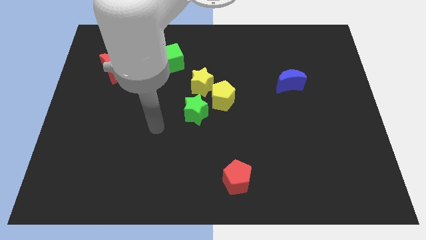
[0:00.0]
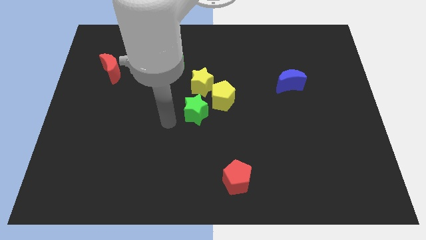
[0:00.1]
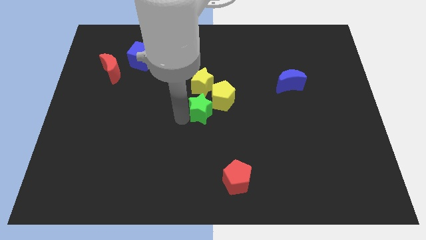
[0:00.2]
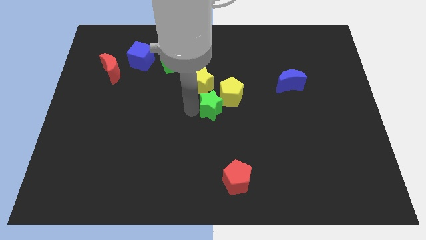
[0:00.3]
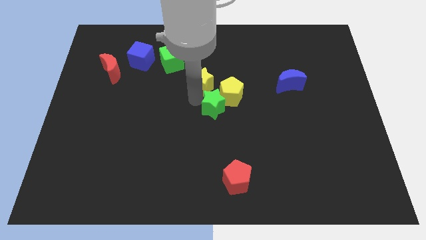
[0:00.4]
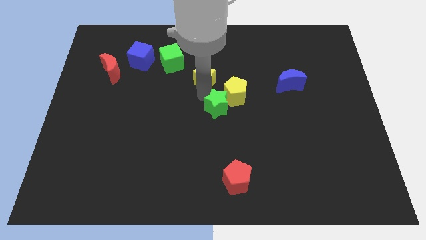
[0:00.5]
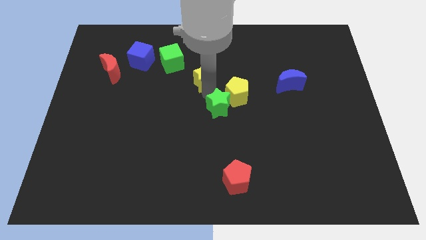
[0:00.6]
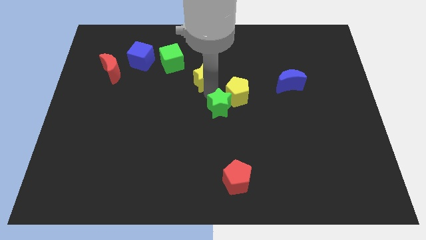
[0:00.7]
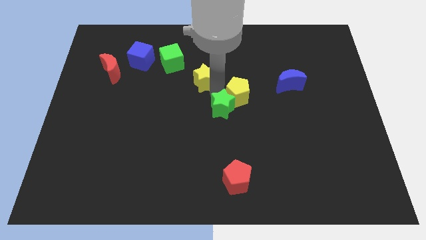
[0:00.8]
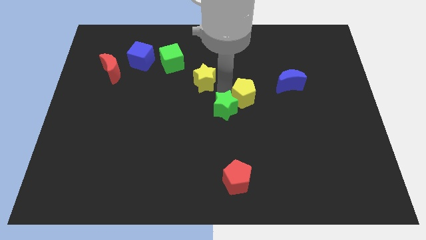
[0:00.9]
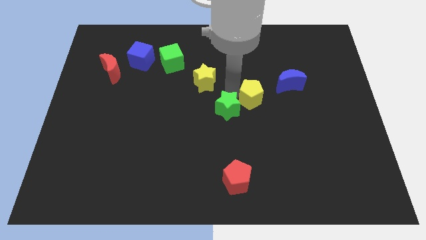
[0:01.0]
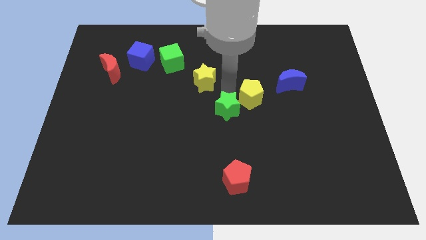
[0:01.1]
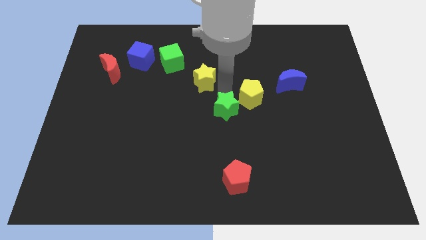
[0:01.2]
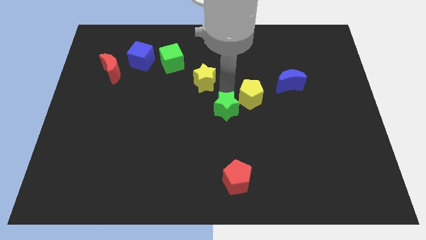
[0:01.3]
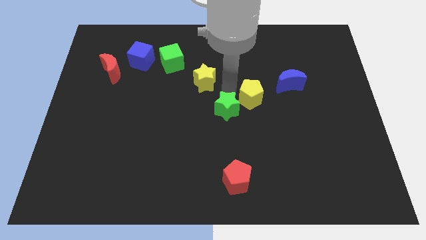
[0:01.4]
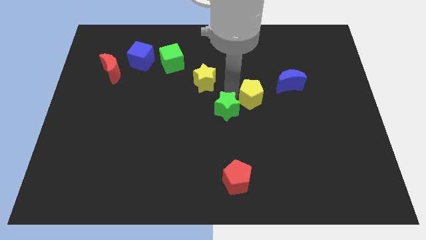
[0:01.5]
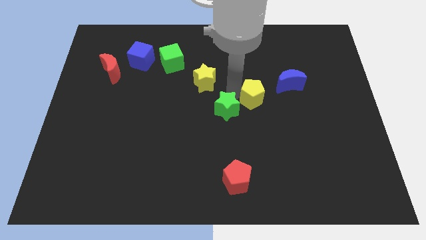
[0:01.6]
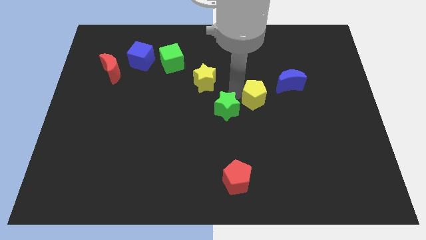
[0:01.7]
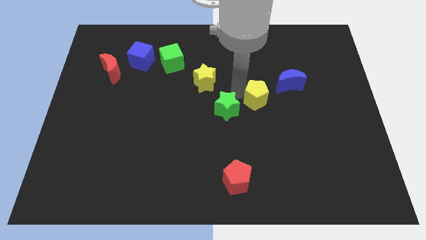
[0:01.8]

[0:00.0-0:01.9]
pull the yellow pentagon apart from the yellow star and green star

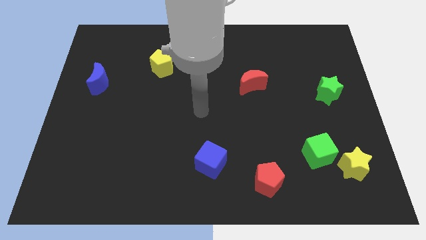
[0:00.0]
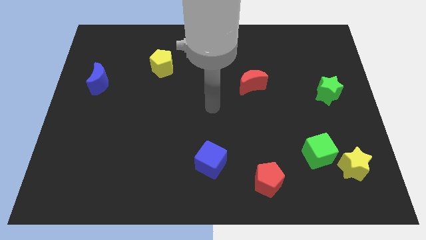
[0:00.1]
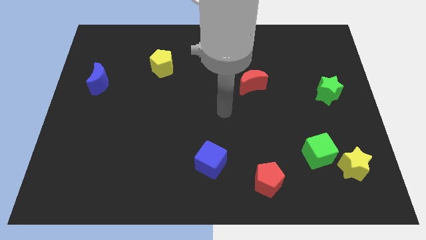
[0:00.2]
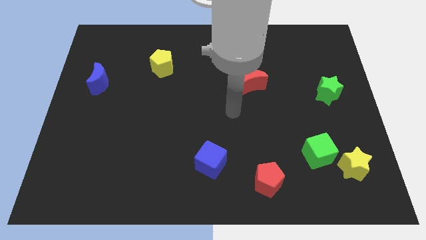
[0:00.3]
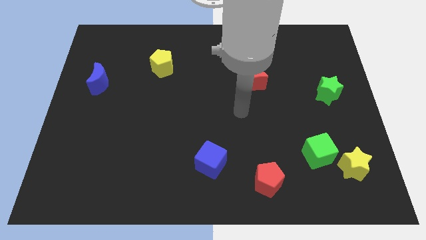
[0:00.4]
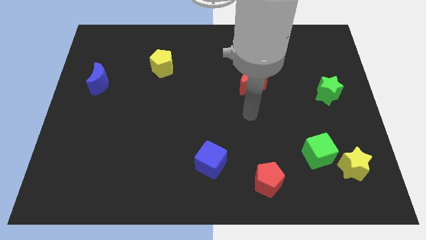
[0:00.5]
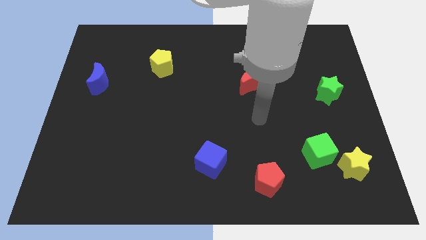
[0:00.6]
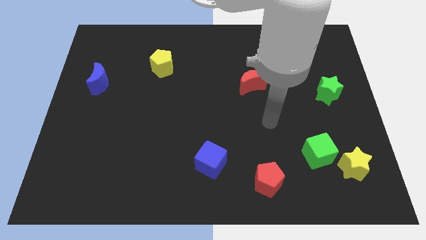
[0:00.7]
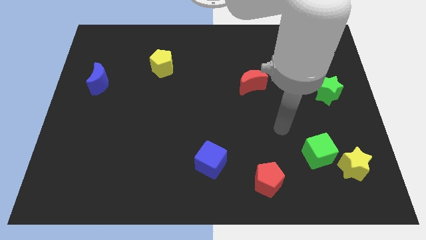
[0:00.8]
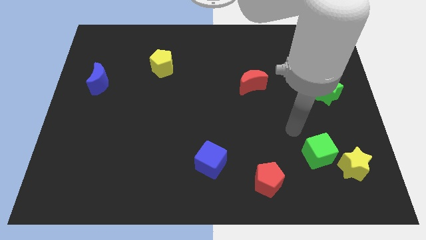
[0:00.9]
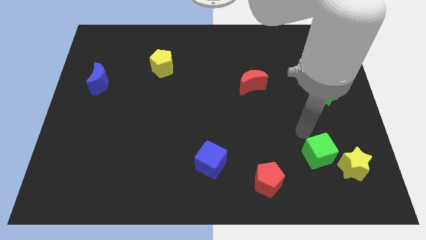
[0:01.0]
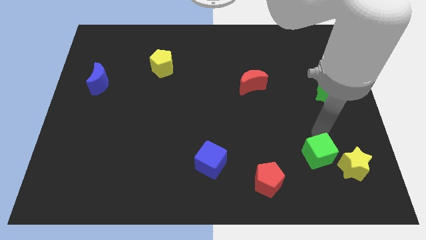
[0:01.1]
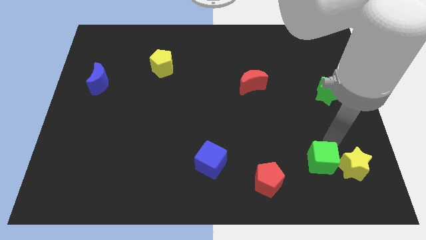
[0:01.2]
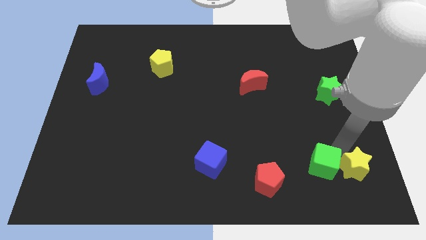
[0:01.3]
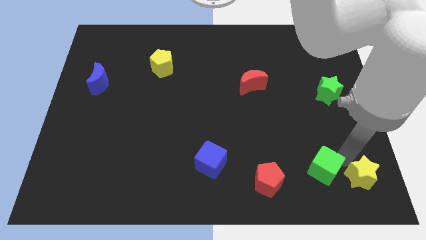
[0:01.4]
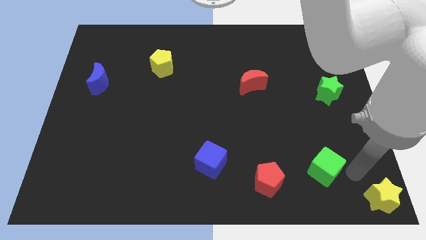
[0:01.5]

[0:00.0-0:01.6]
separate the green cube from the yellow star

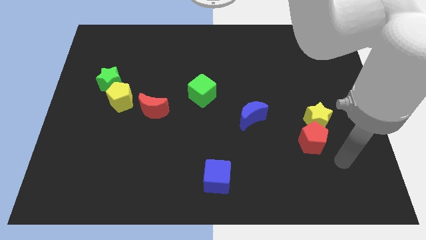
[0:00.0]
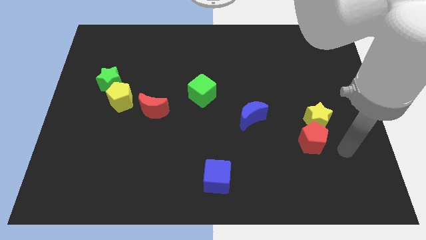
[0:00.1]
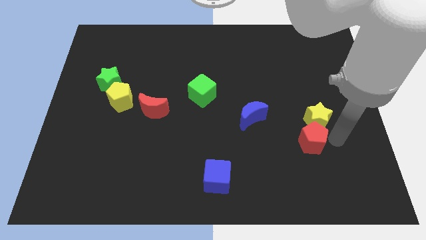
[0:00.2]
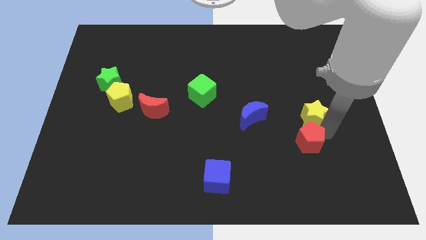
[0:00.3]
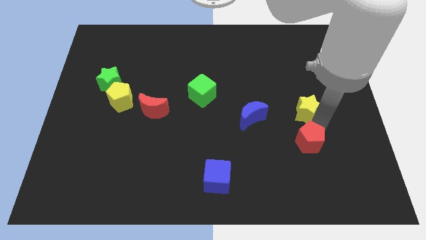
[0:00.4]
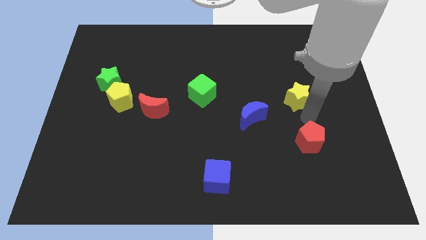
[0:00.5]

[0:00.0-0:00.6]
pull the red pentagon apart from the yellow star

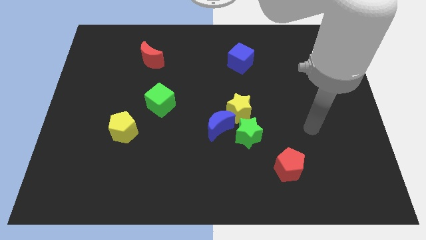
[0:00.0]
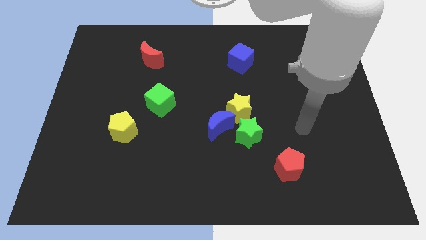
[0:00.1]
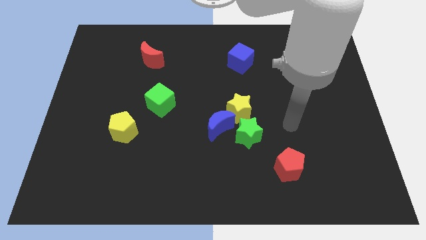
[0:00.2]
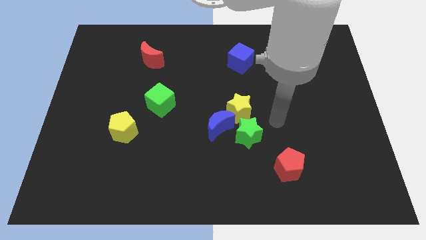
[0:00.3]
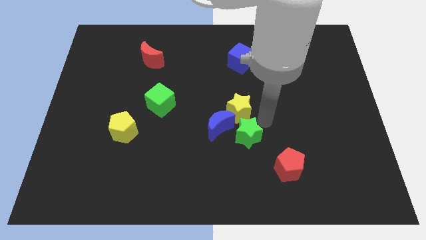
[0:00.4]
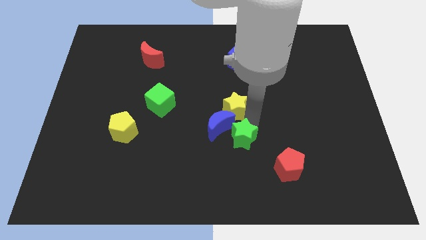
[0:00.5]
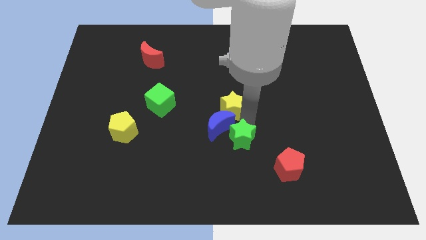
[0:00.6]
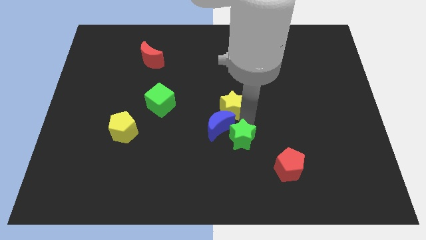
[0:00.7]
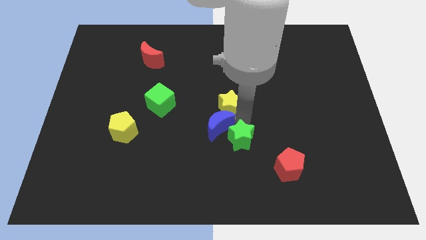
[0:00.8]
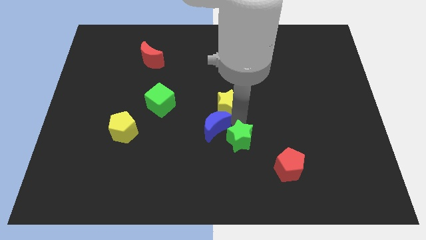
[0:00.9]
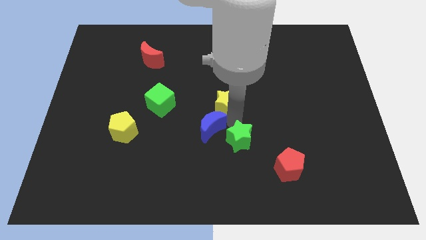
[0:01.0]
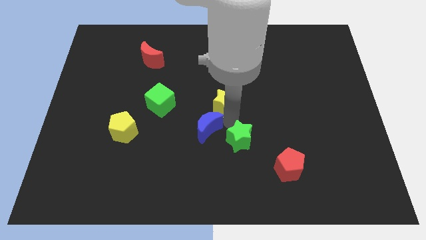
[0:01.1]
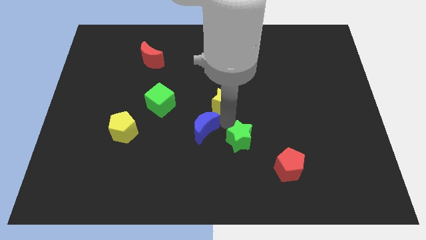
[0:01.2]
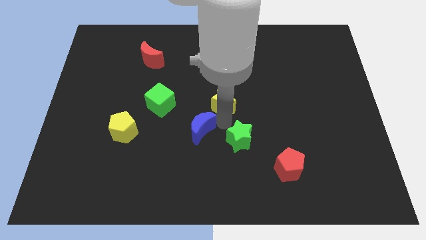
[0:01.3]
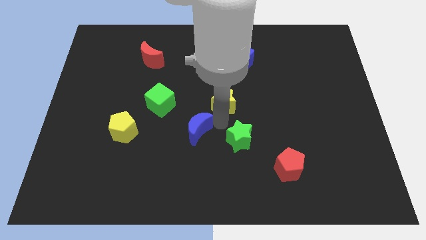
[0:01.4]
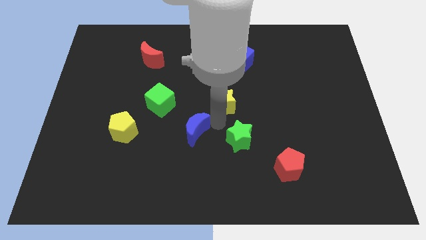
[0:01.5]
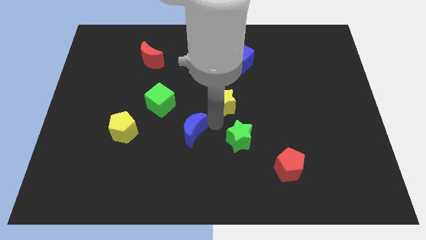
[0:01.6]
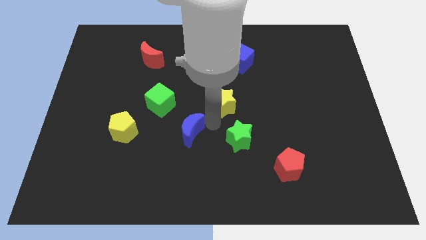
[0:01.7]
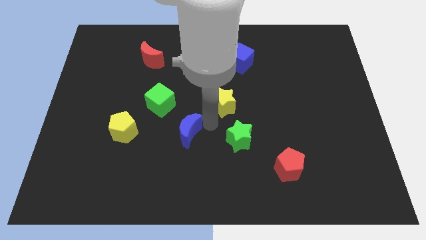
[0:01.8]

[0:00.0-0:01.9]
separate the blue moon from the yellow star and green star

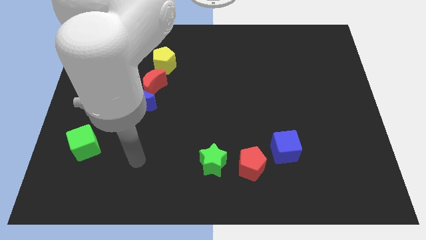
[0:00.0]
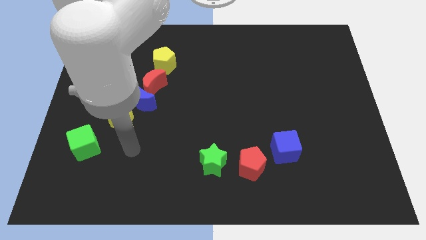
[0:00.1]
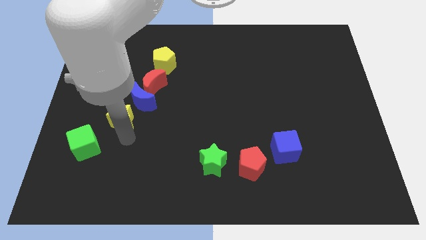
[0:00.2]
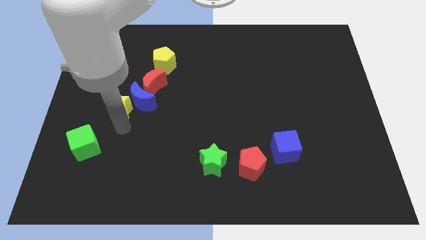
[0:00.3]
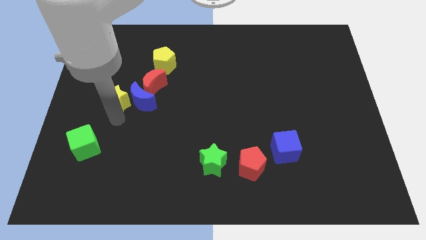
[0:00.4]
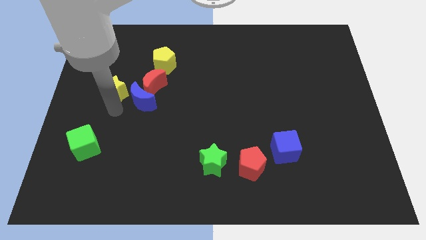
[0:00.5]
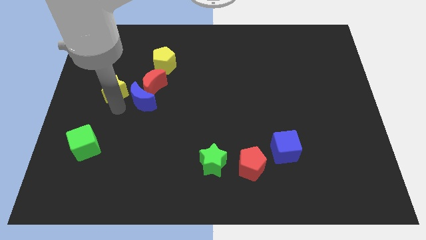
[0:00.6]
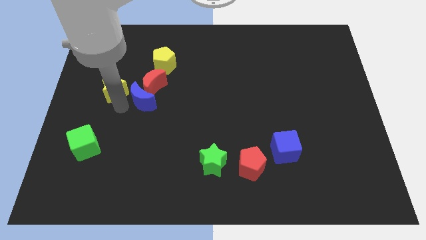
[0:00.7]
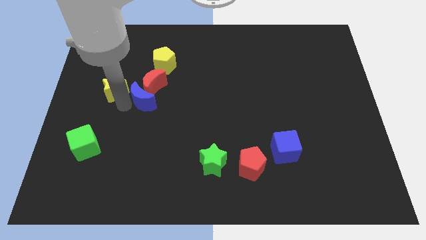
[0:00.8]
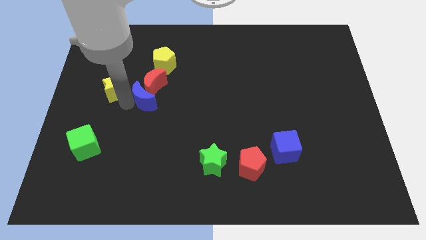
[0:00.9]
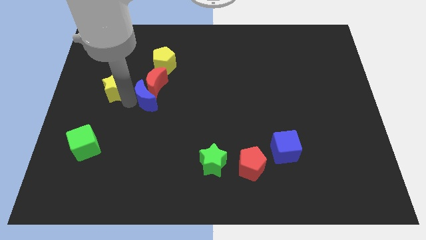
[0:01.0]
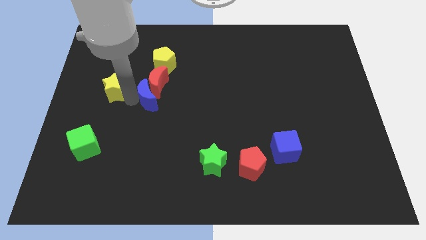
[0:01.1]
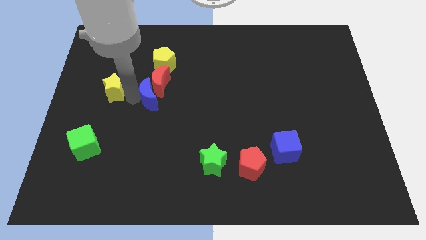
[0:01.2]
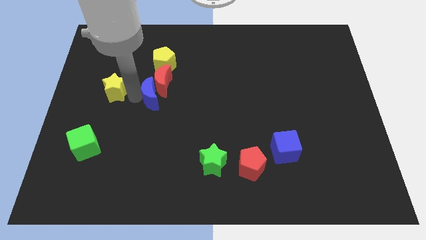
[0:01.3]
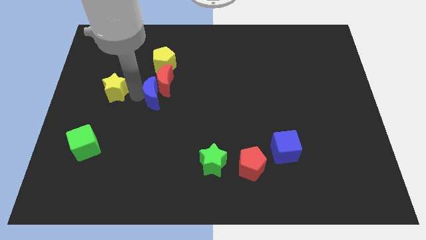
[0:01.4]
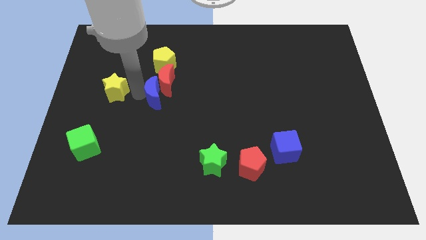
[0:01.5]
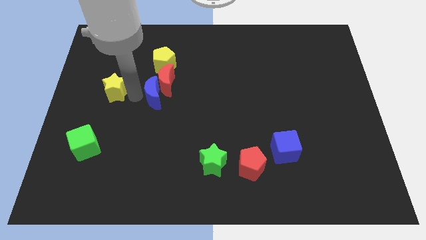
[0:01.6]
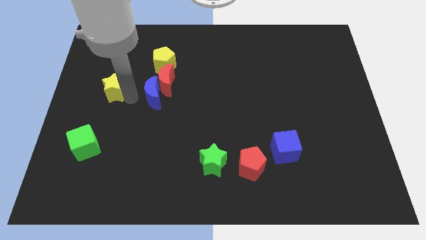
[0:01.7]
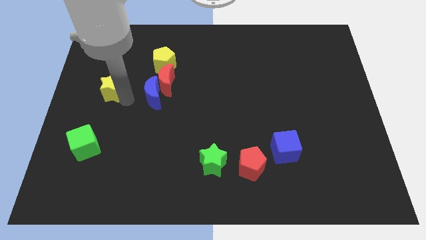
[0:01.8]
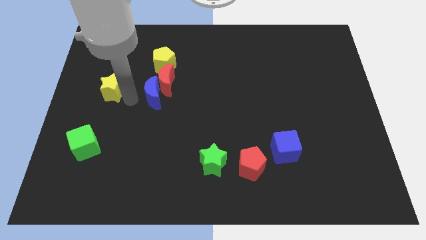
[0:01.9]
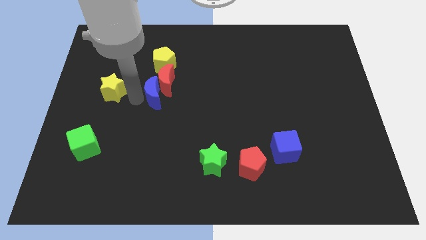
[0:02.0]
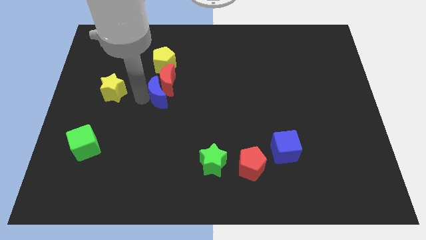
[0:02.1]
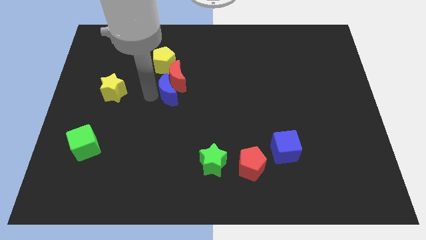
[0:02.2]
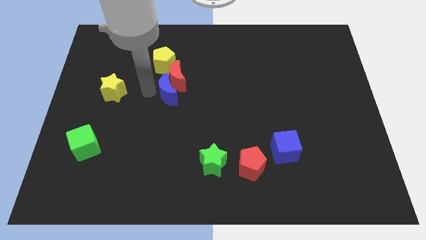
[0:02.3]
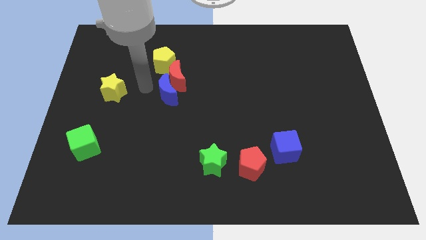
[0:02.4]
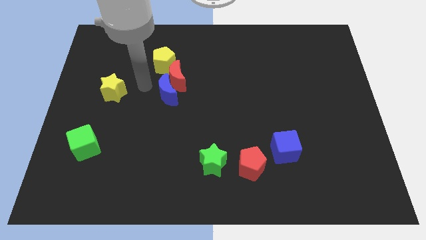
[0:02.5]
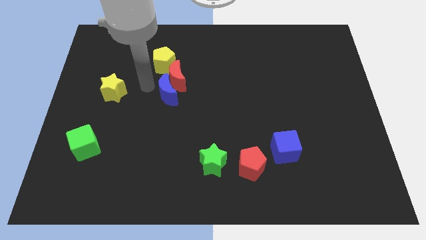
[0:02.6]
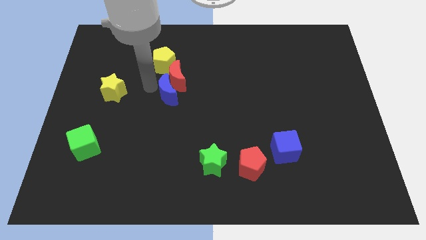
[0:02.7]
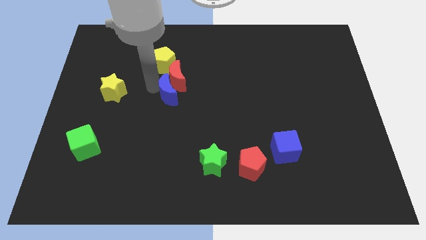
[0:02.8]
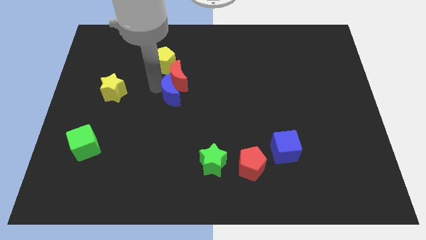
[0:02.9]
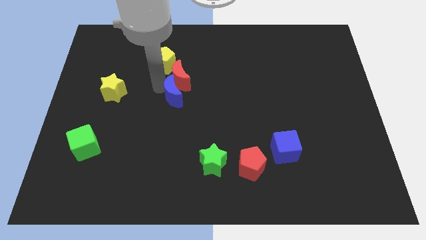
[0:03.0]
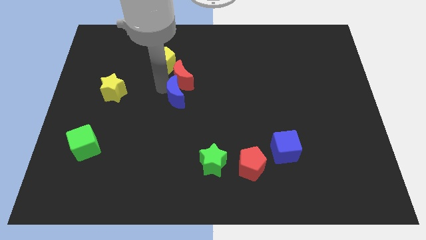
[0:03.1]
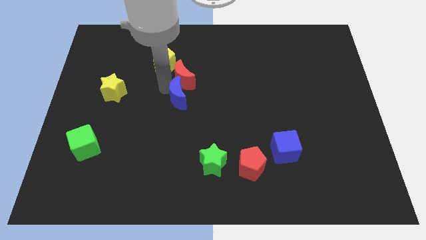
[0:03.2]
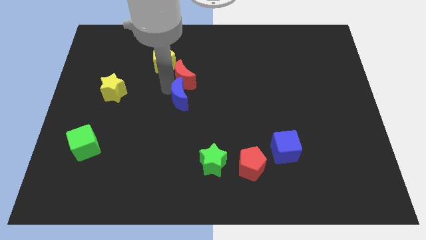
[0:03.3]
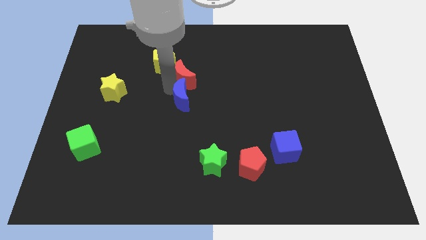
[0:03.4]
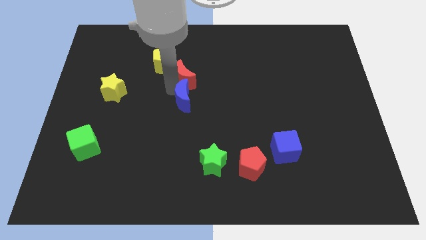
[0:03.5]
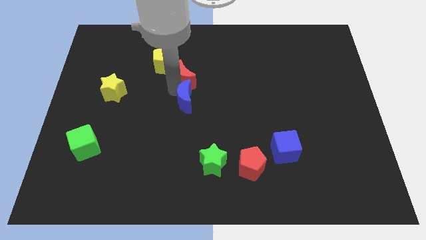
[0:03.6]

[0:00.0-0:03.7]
pull the blue moon apart from the red moon and yellow star
